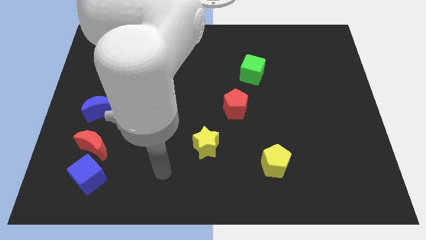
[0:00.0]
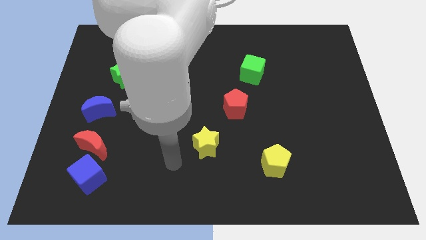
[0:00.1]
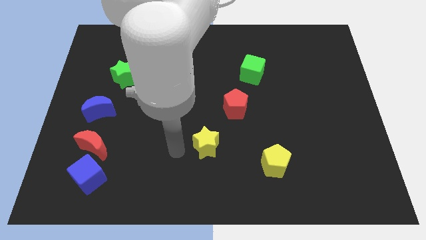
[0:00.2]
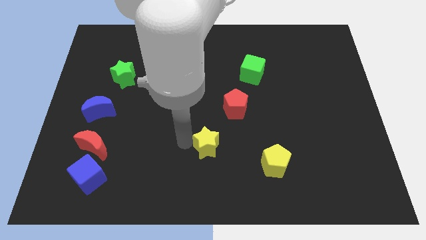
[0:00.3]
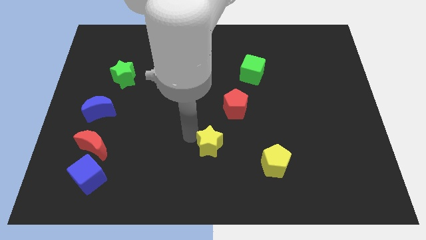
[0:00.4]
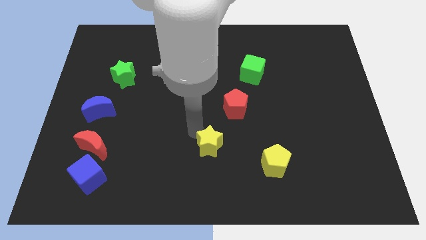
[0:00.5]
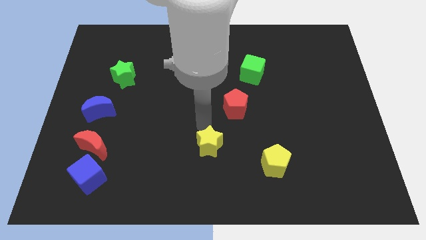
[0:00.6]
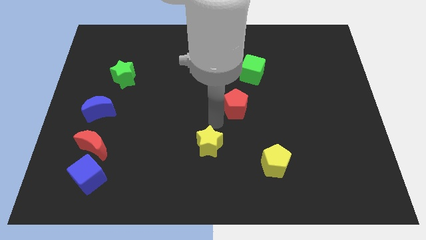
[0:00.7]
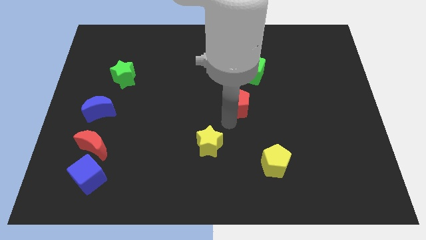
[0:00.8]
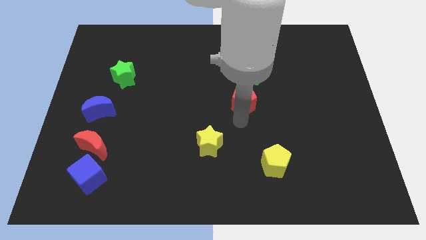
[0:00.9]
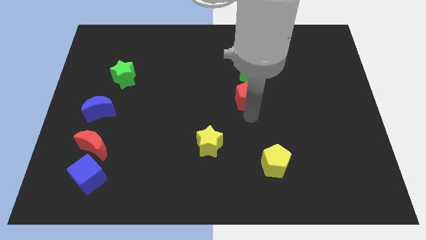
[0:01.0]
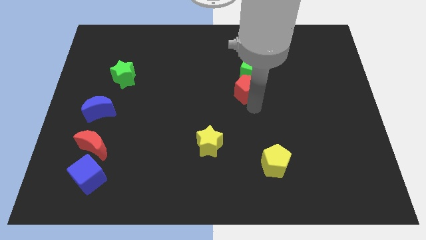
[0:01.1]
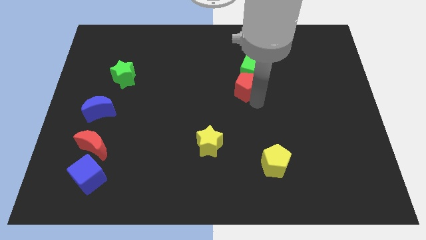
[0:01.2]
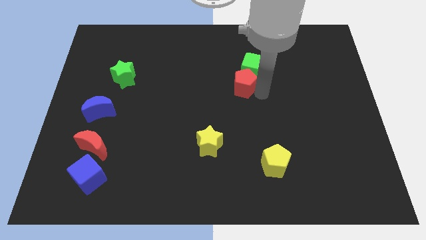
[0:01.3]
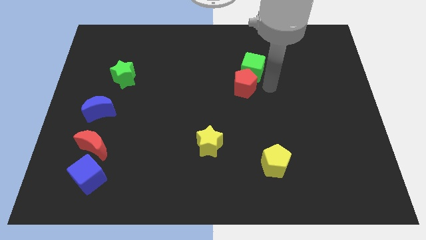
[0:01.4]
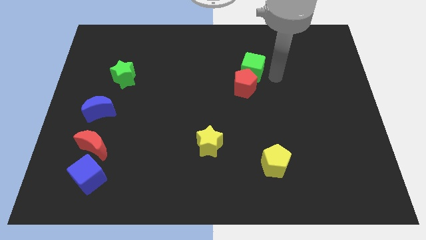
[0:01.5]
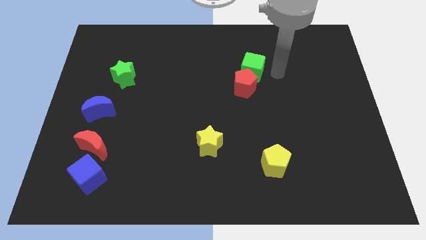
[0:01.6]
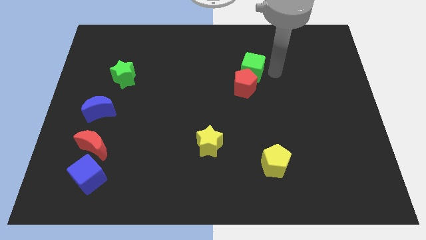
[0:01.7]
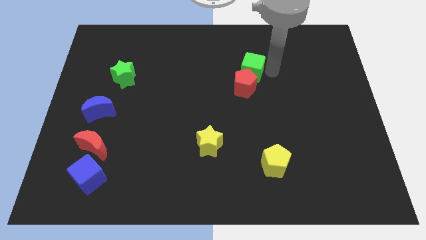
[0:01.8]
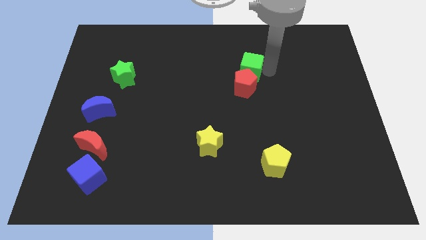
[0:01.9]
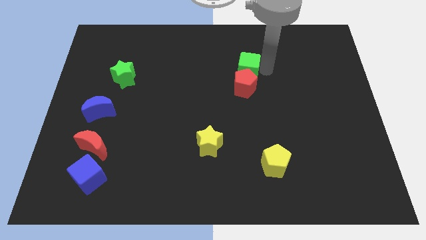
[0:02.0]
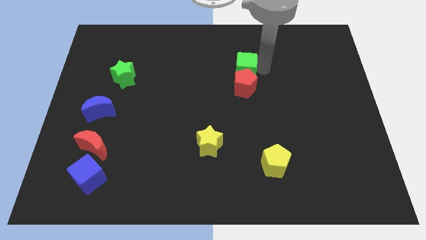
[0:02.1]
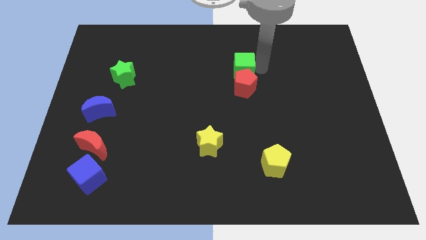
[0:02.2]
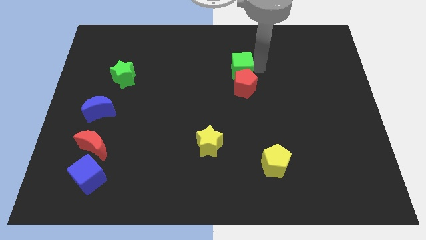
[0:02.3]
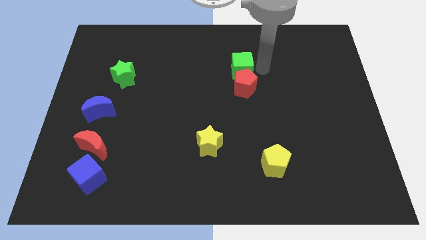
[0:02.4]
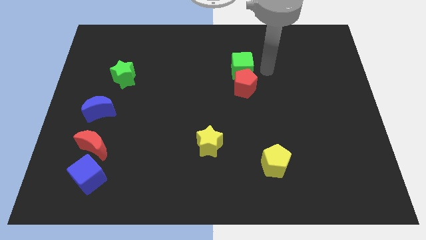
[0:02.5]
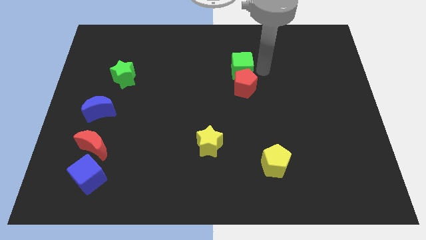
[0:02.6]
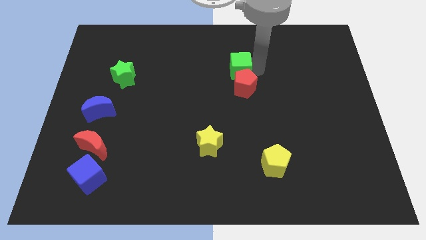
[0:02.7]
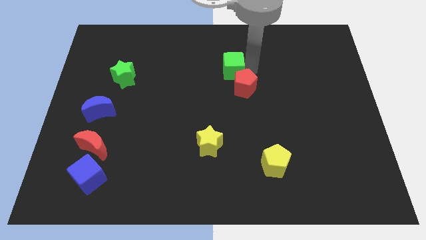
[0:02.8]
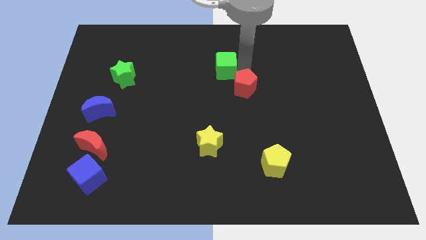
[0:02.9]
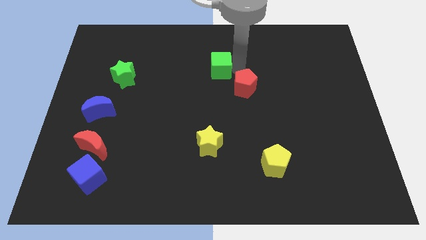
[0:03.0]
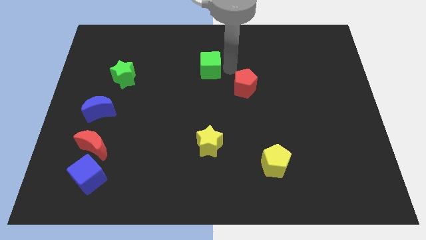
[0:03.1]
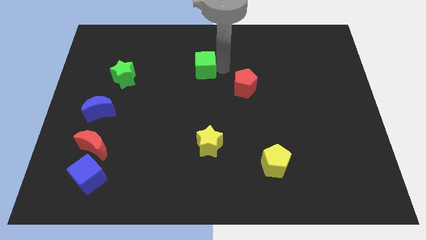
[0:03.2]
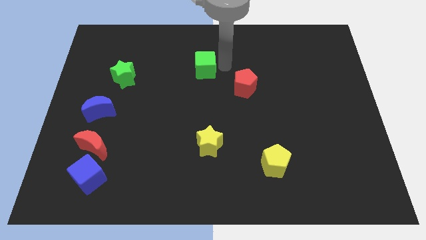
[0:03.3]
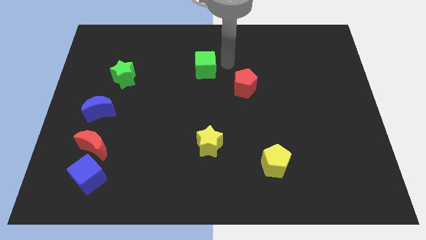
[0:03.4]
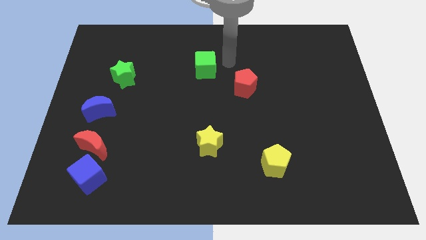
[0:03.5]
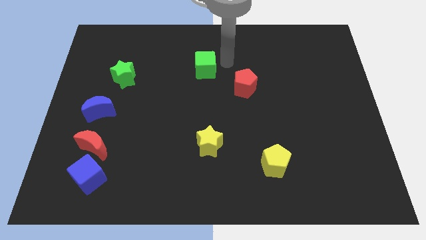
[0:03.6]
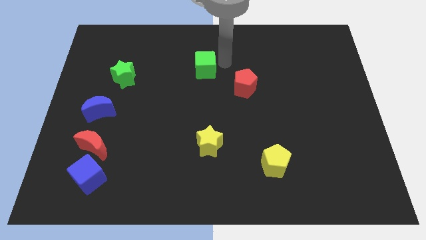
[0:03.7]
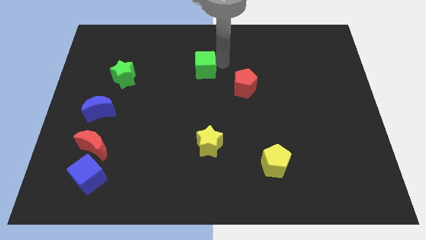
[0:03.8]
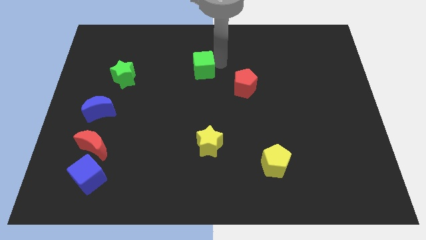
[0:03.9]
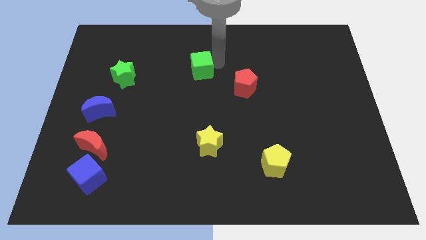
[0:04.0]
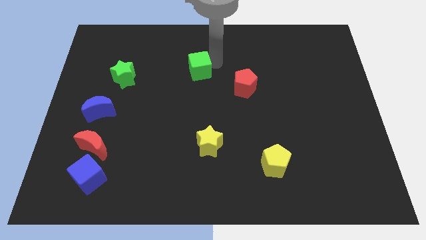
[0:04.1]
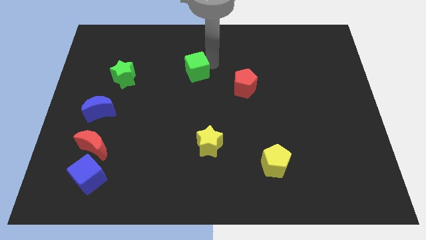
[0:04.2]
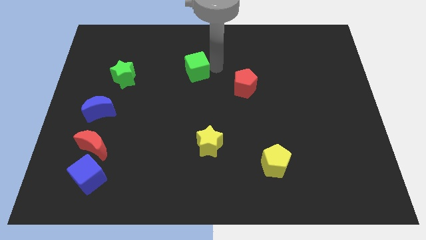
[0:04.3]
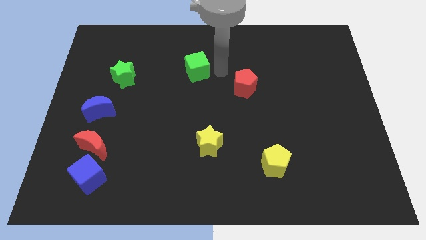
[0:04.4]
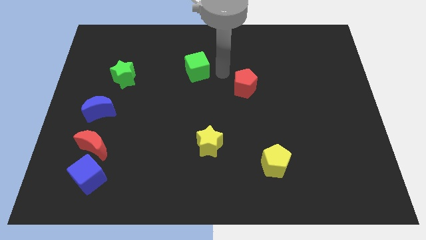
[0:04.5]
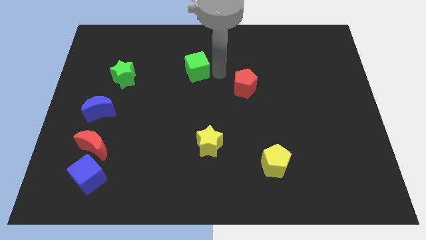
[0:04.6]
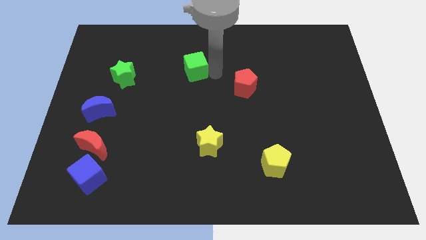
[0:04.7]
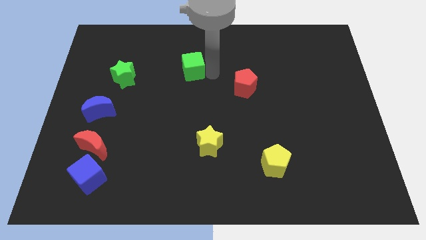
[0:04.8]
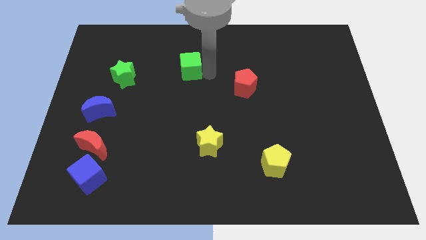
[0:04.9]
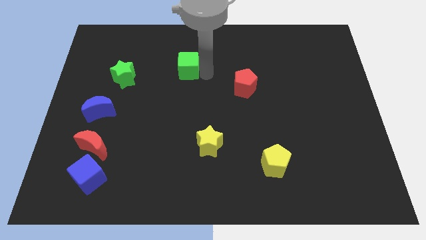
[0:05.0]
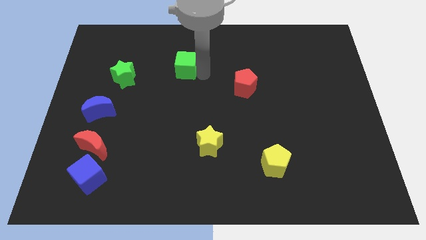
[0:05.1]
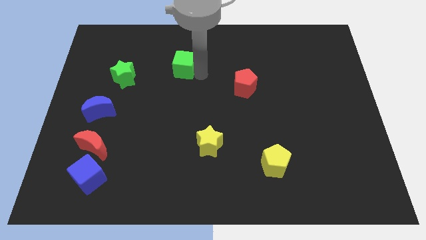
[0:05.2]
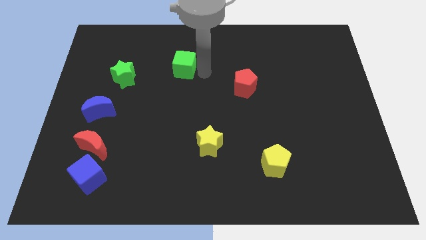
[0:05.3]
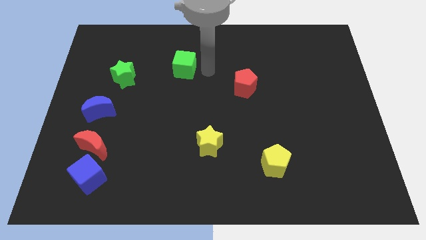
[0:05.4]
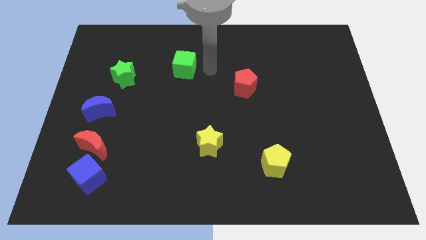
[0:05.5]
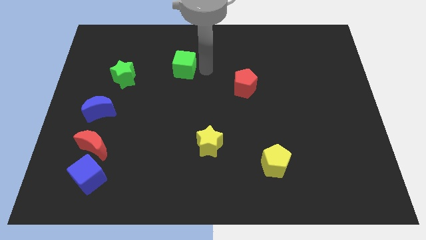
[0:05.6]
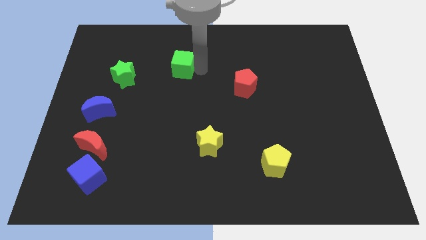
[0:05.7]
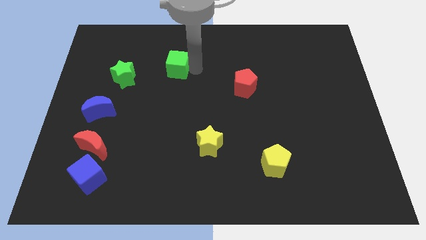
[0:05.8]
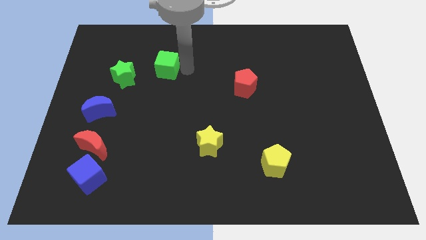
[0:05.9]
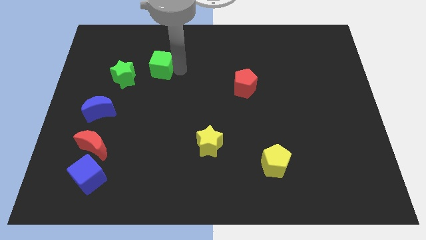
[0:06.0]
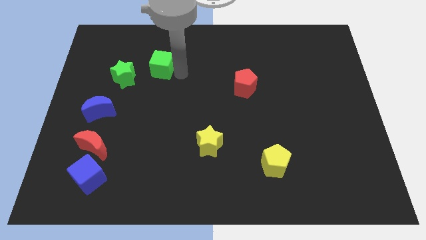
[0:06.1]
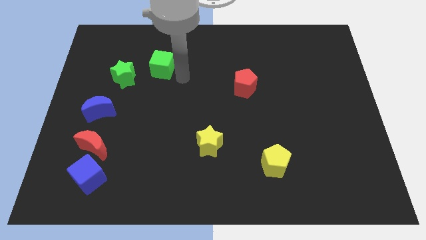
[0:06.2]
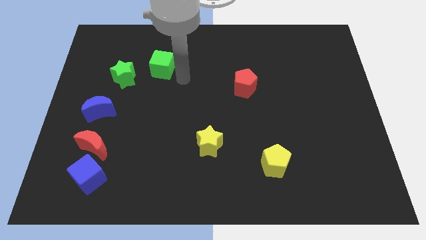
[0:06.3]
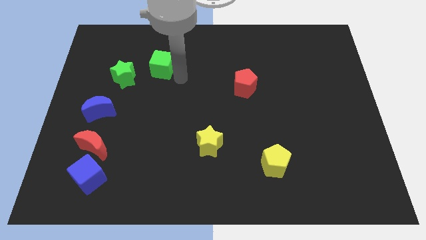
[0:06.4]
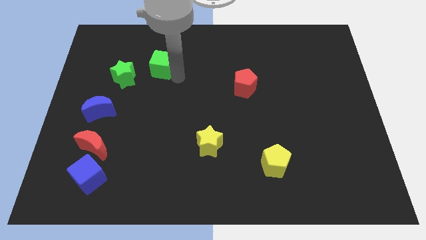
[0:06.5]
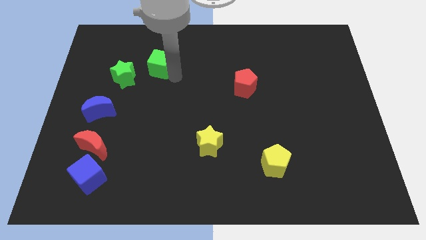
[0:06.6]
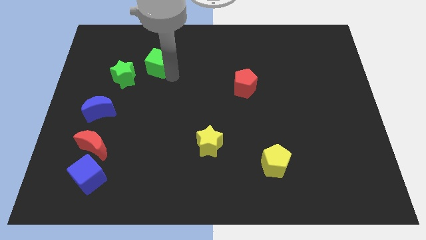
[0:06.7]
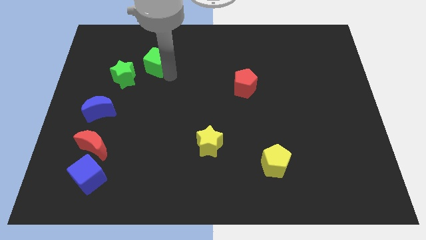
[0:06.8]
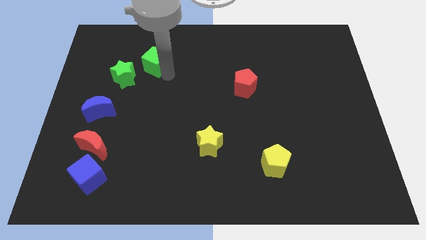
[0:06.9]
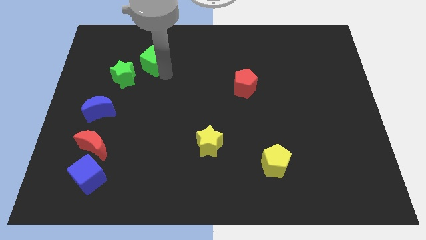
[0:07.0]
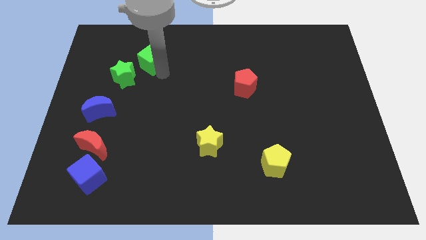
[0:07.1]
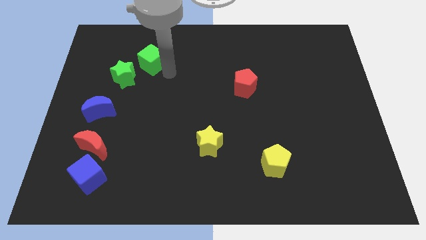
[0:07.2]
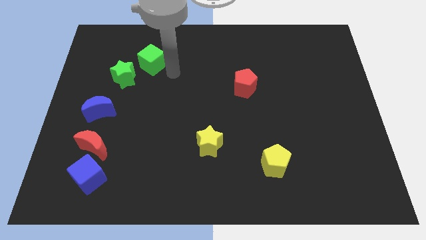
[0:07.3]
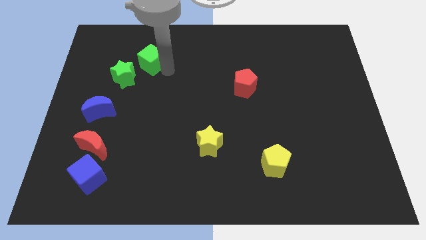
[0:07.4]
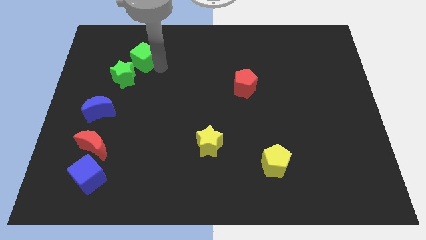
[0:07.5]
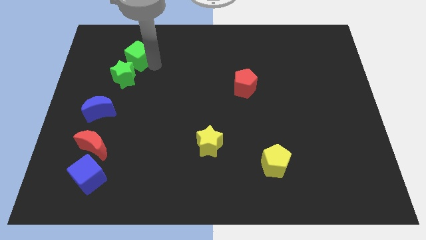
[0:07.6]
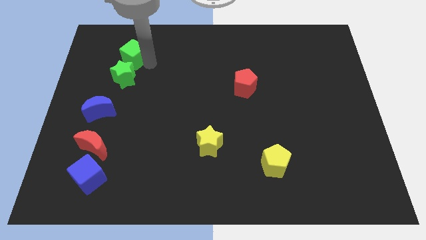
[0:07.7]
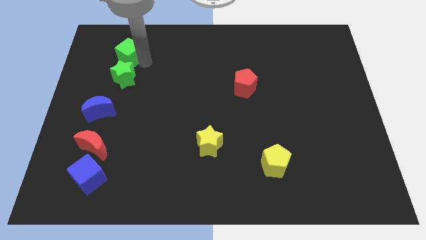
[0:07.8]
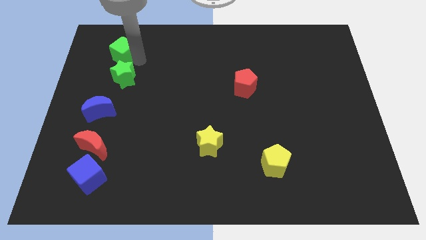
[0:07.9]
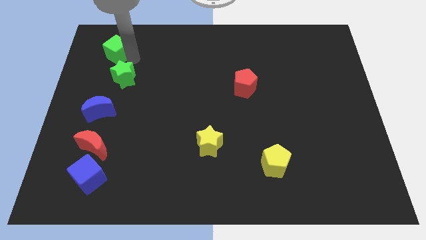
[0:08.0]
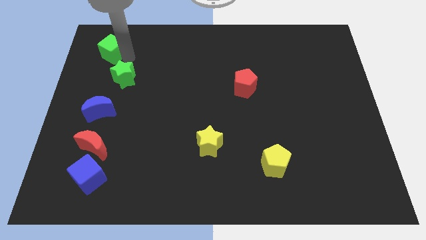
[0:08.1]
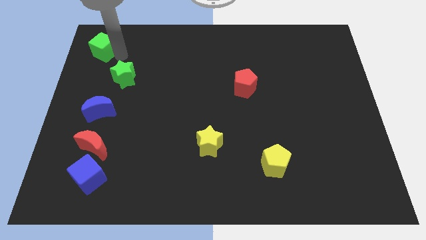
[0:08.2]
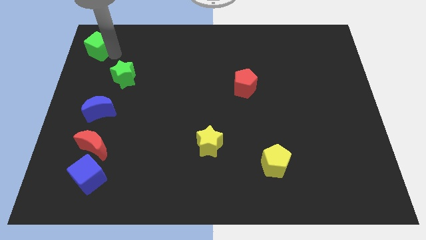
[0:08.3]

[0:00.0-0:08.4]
move the green cube to the top left
